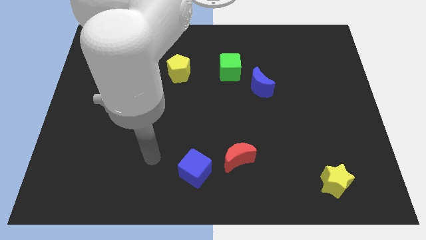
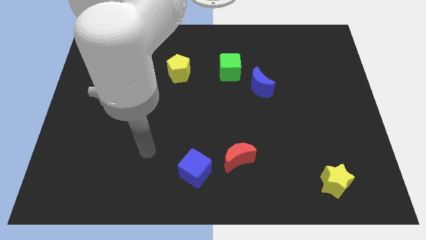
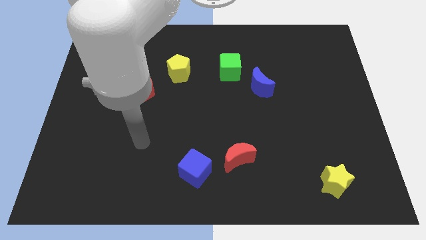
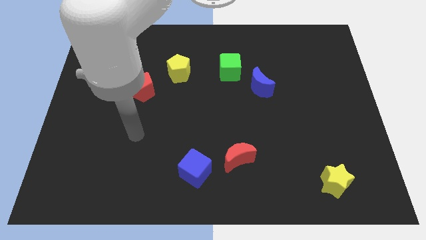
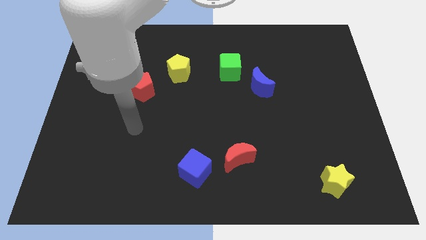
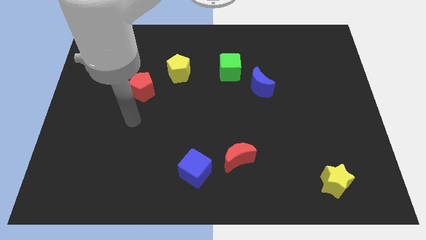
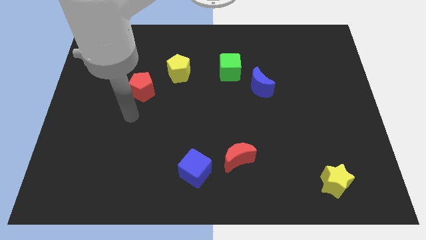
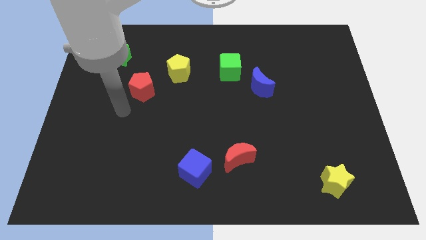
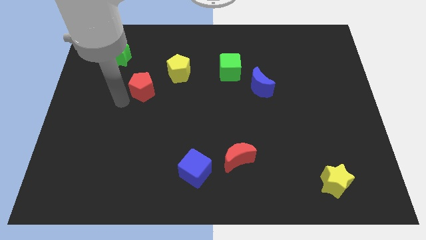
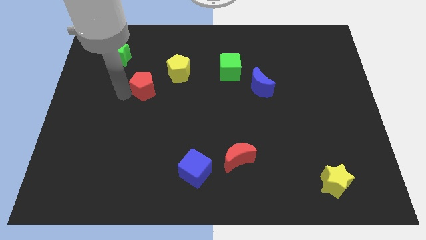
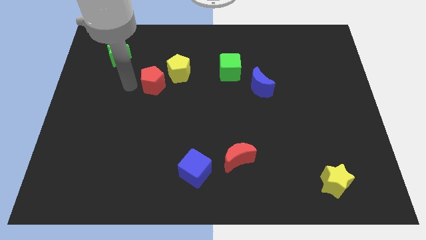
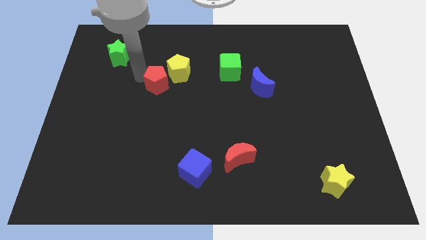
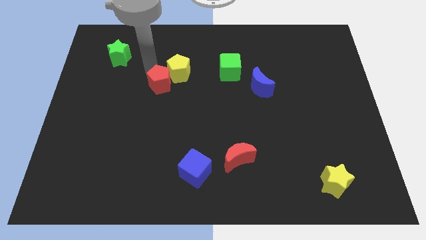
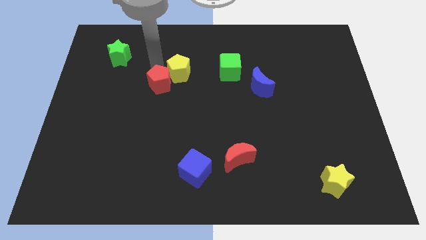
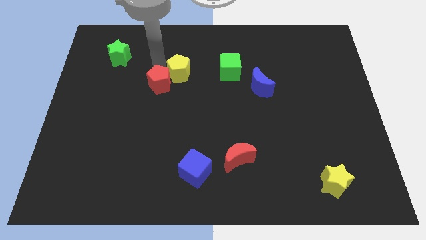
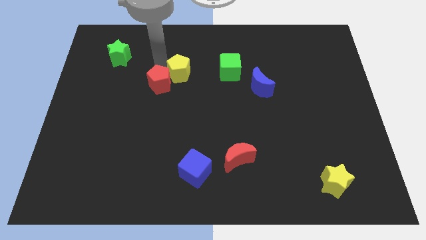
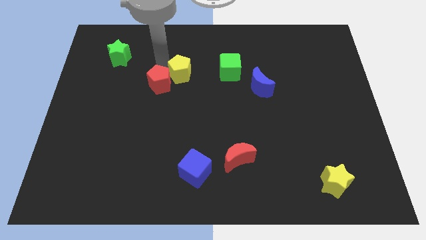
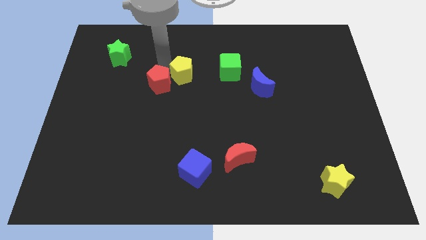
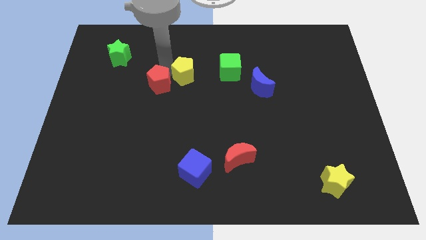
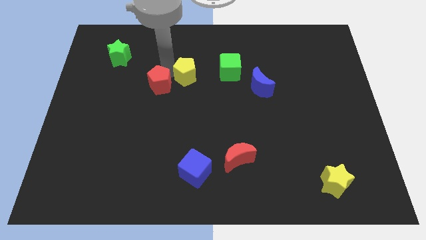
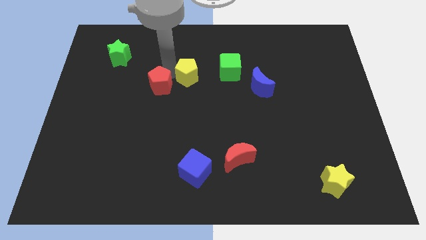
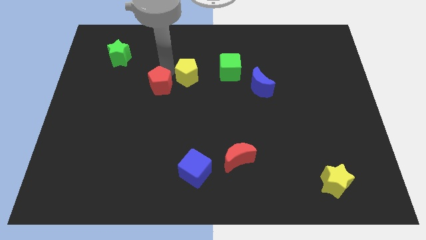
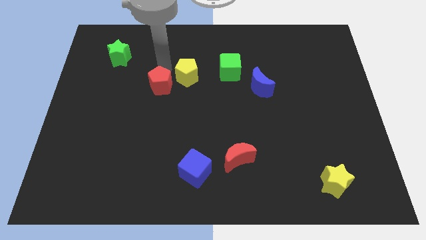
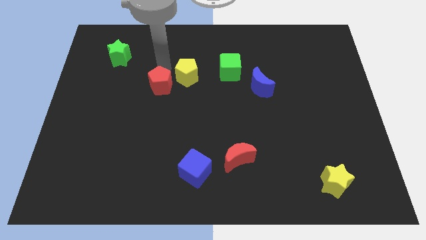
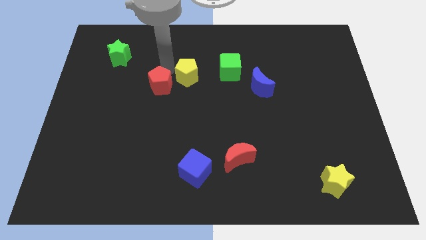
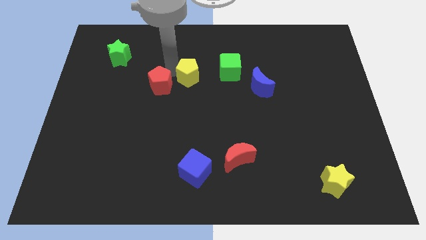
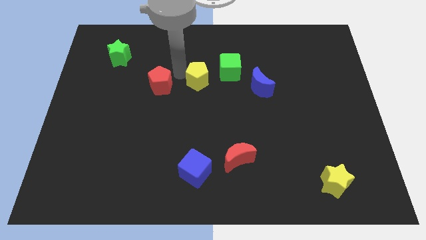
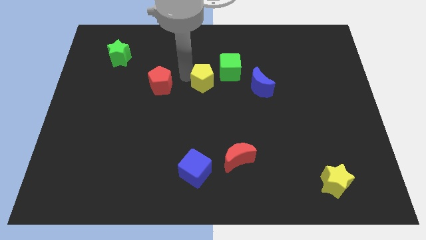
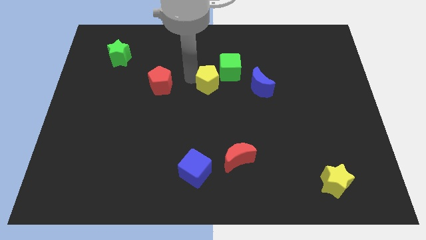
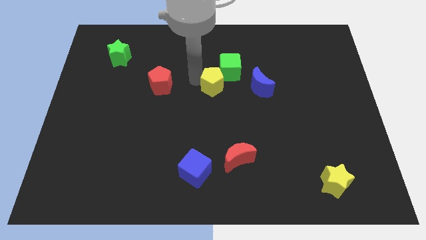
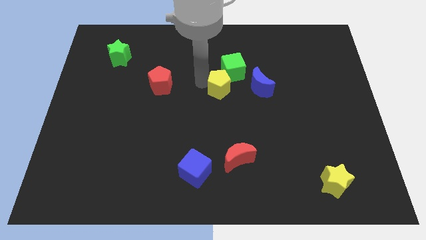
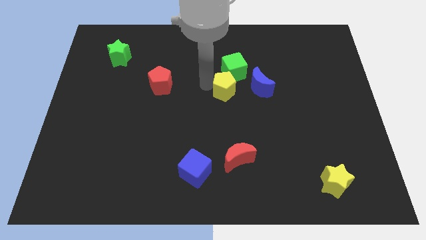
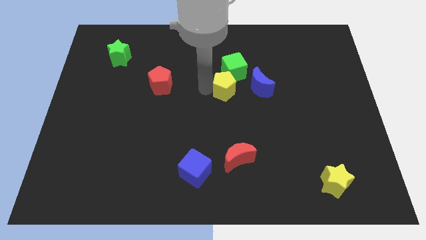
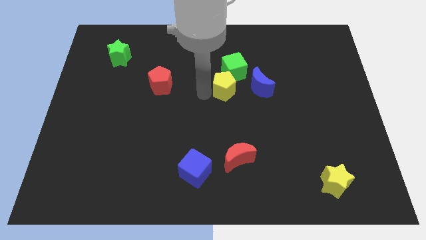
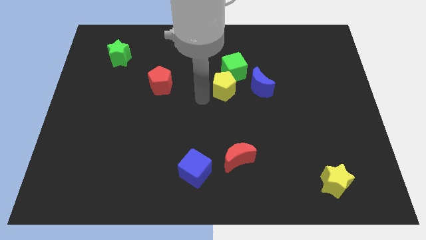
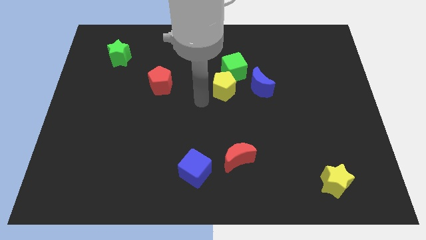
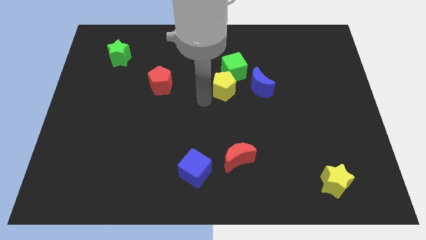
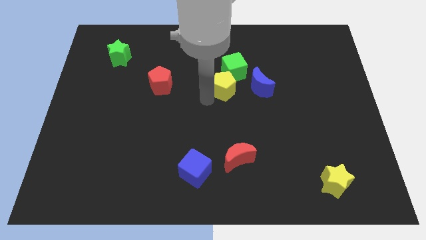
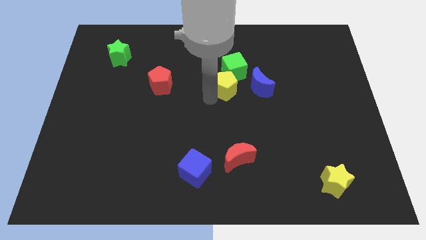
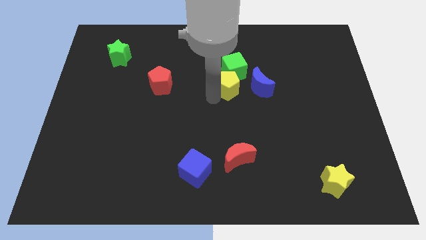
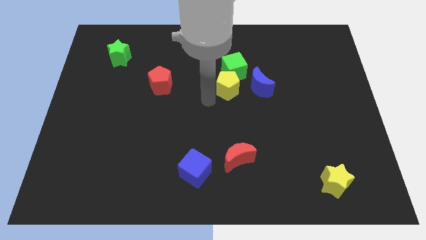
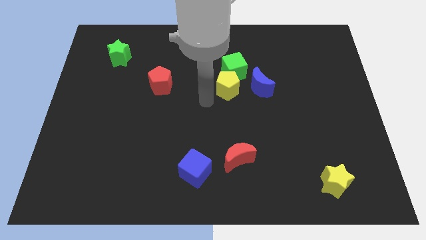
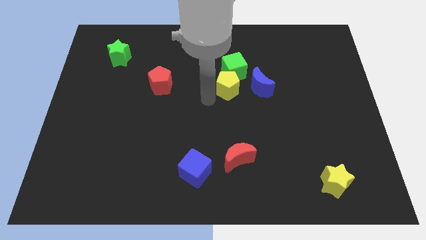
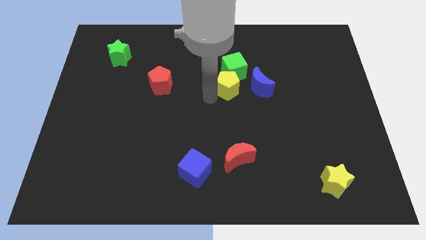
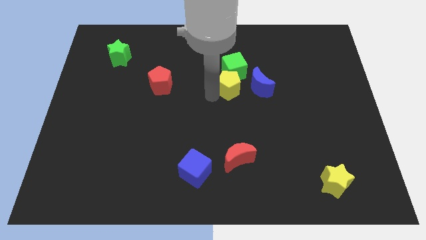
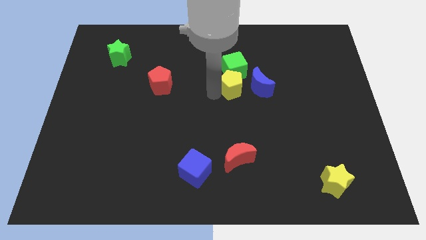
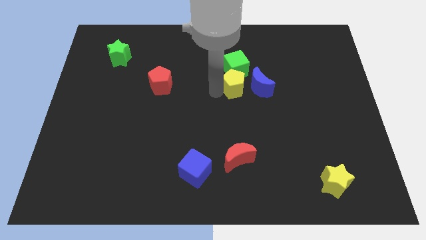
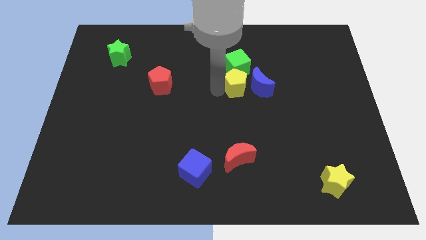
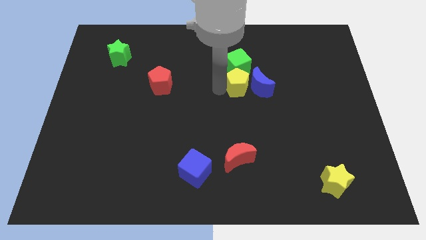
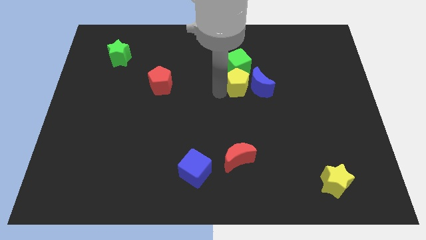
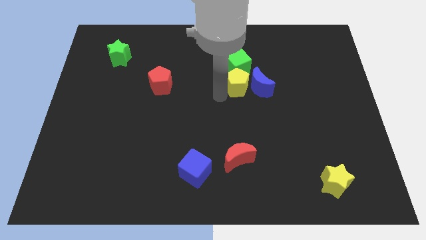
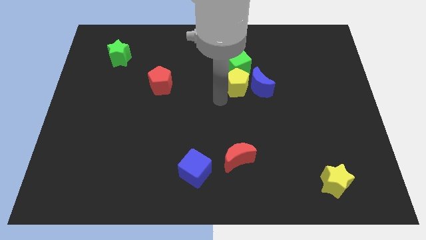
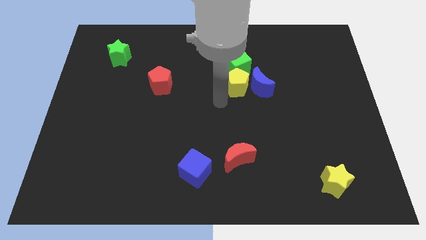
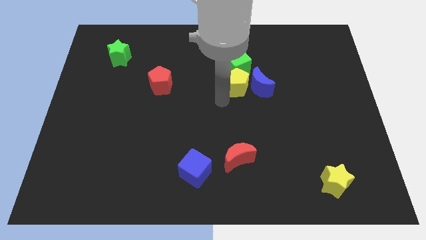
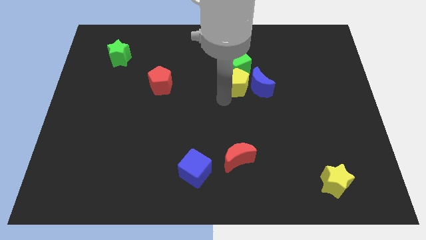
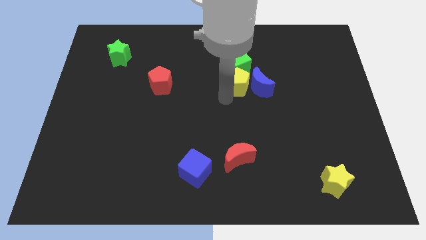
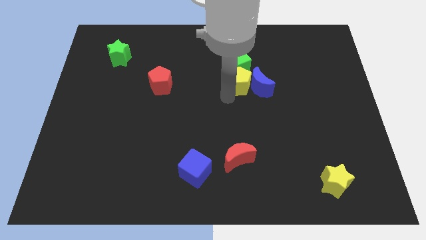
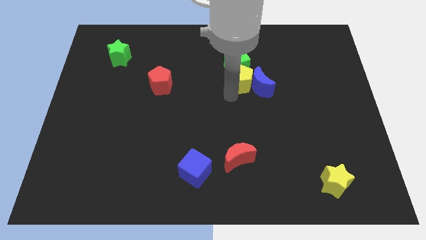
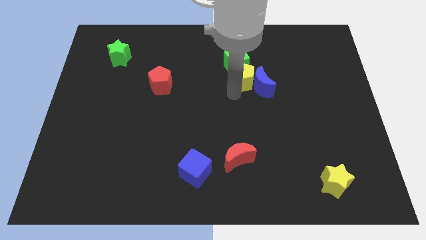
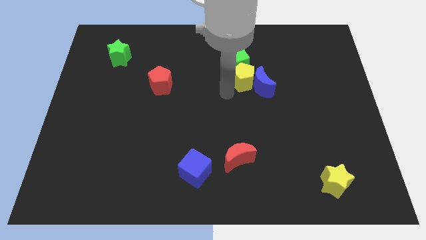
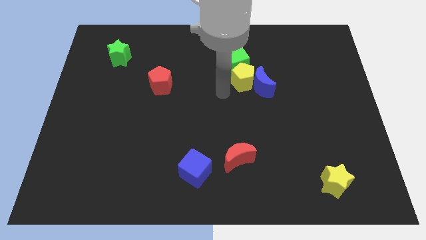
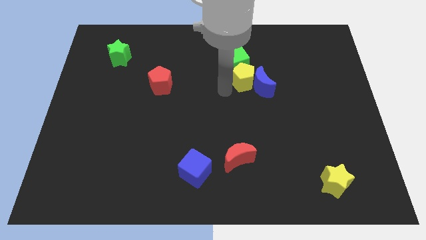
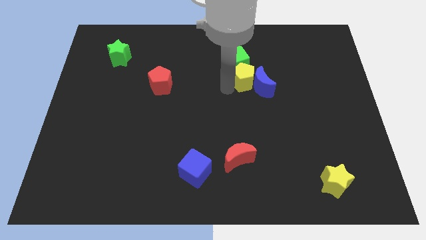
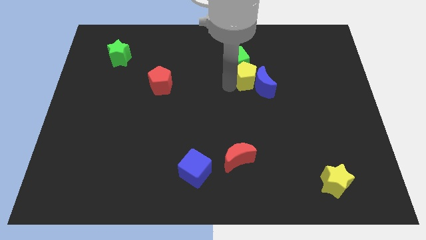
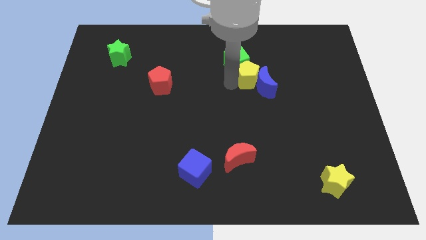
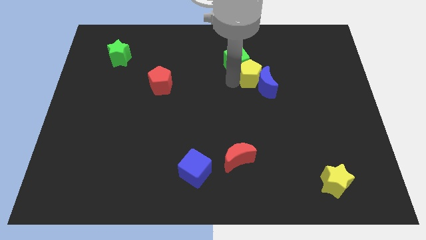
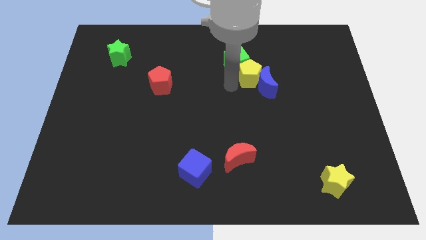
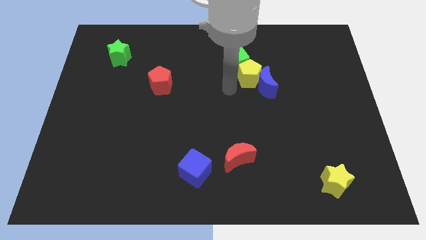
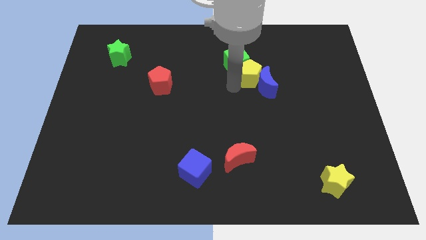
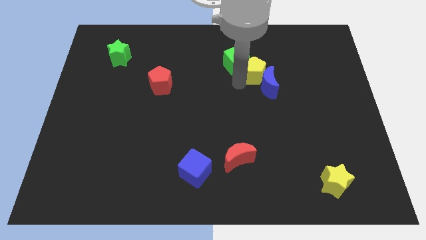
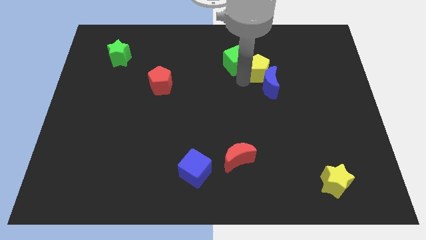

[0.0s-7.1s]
slide the yellow pentagon to the right

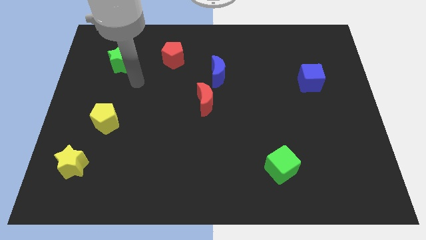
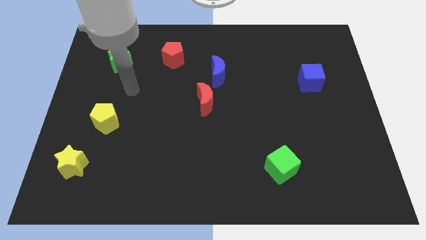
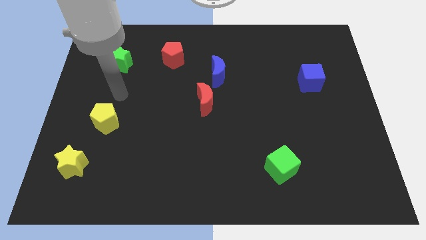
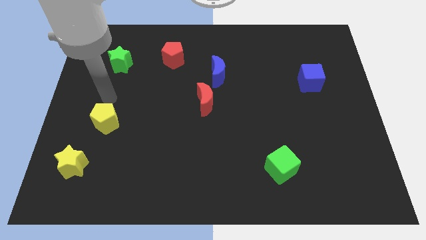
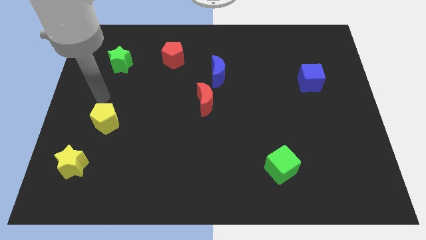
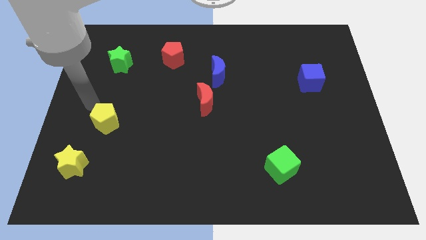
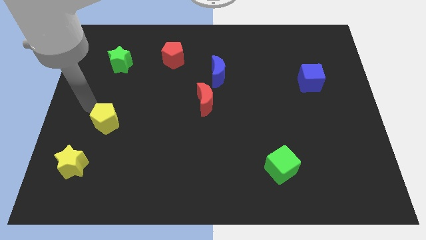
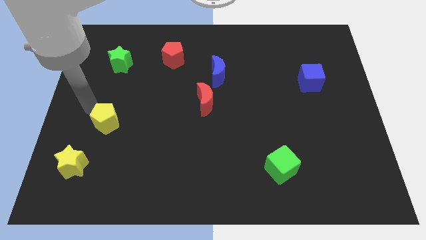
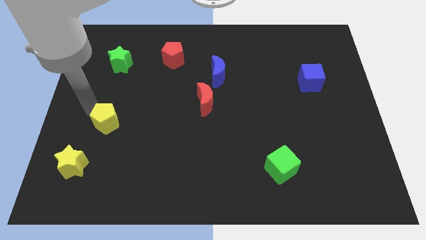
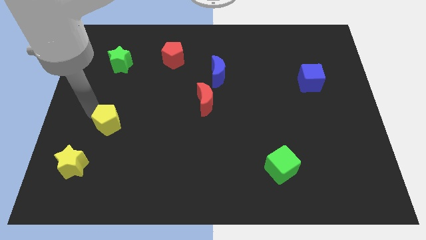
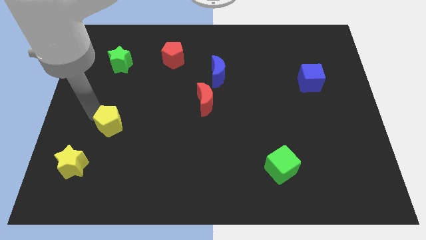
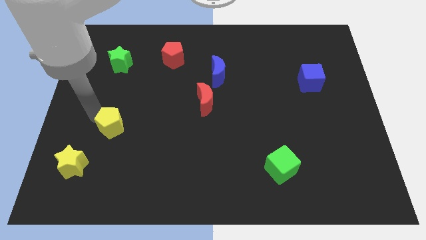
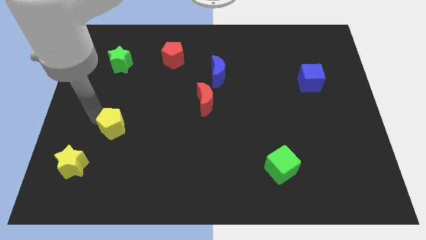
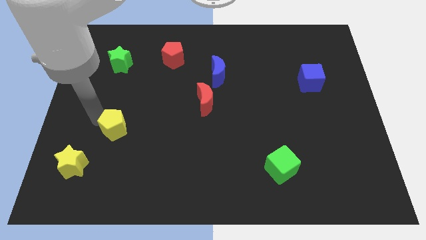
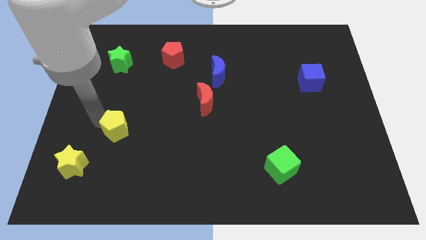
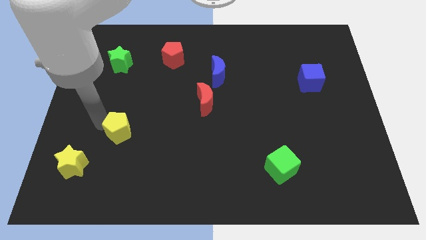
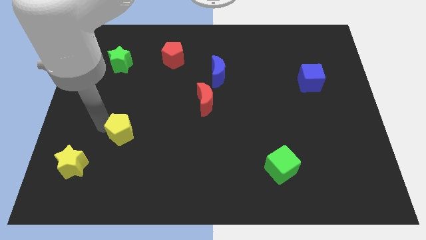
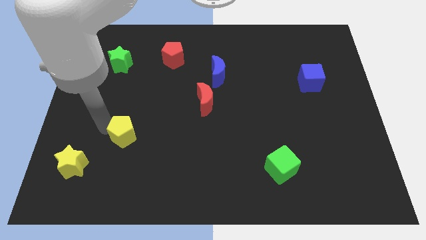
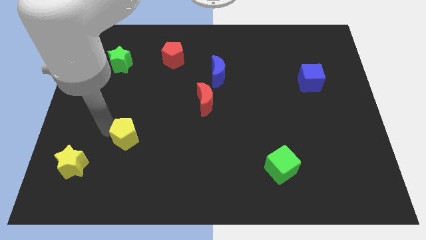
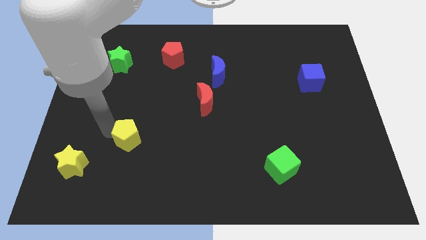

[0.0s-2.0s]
slightly push the yellow pentagon downwards and then right
